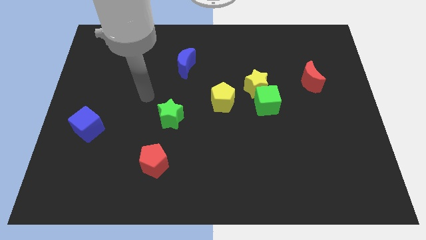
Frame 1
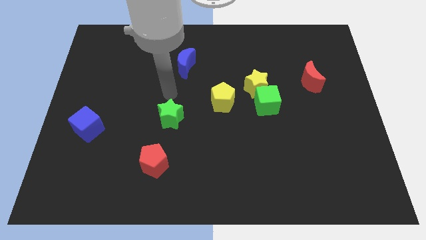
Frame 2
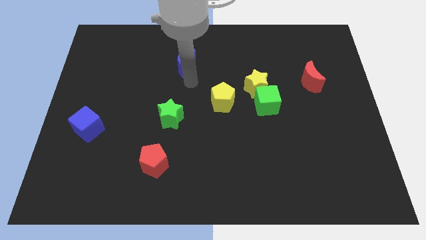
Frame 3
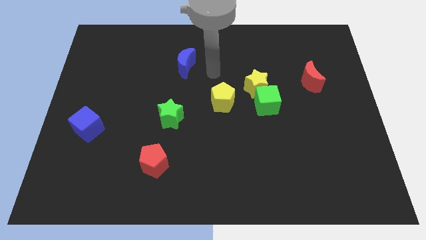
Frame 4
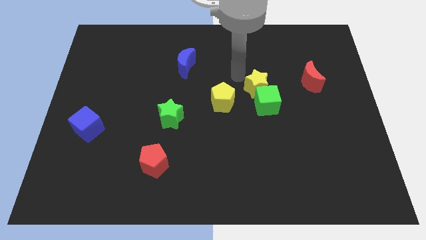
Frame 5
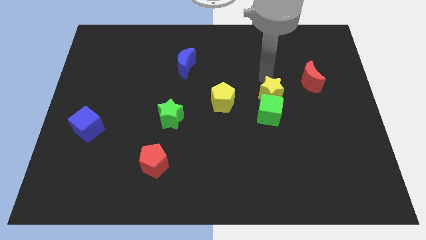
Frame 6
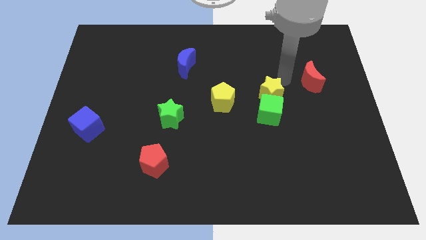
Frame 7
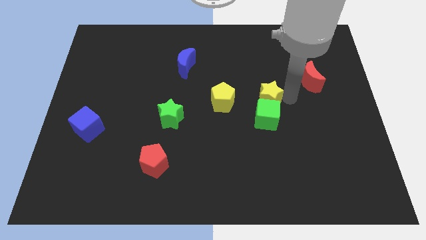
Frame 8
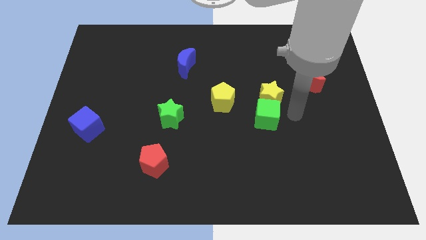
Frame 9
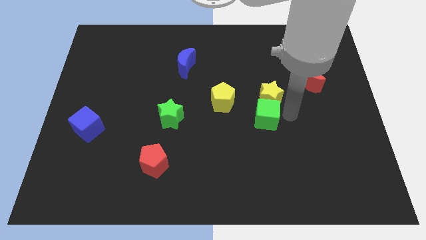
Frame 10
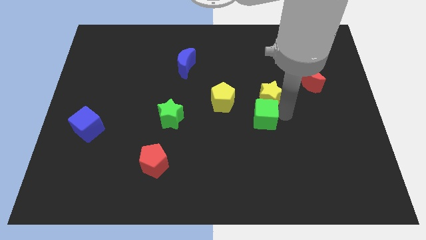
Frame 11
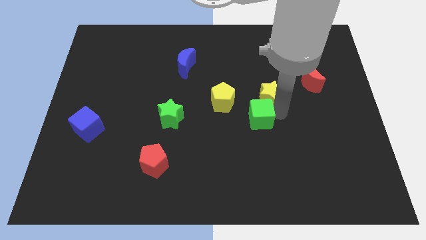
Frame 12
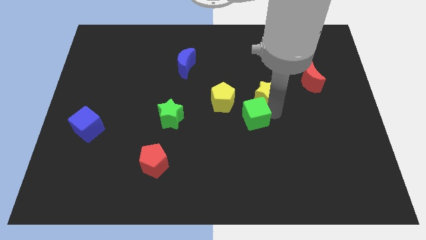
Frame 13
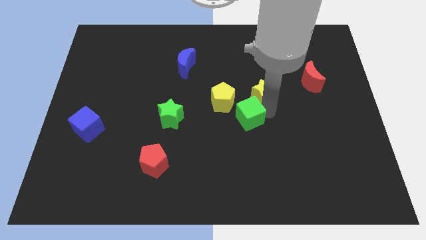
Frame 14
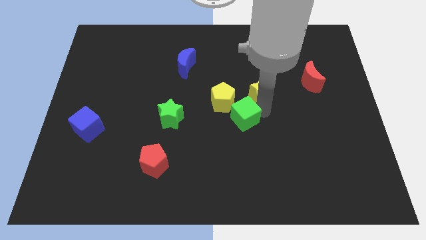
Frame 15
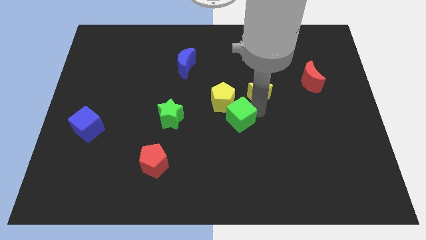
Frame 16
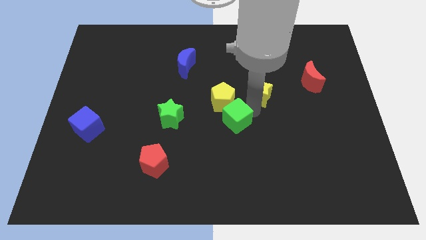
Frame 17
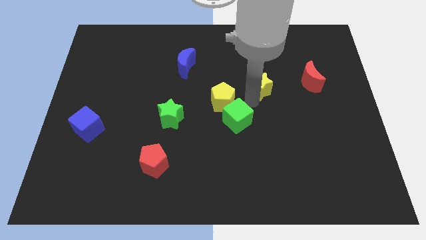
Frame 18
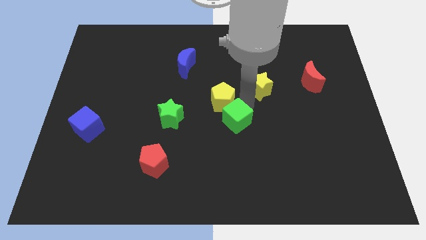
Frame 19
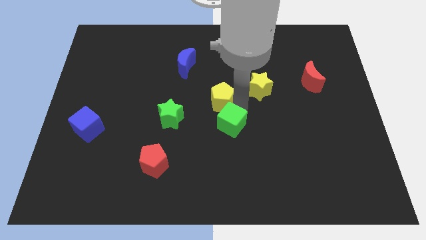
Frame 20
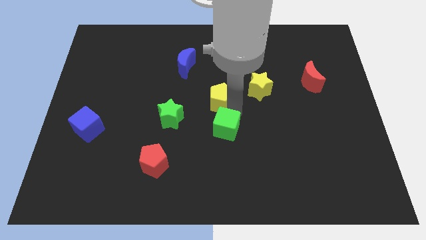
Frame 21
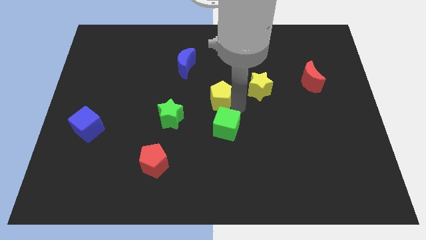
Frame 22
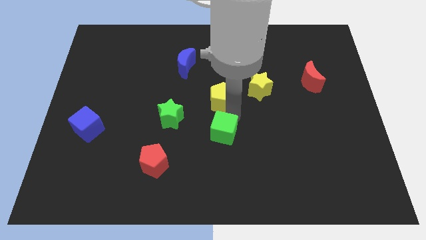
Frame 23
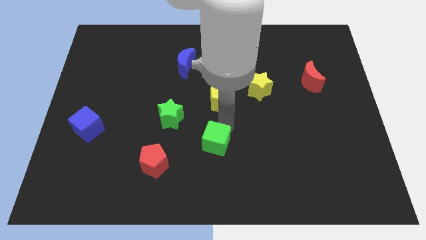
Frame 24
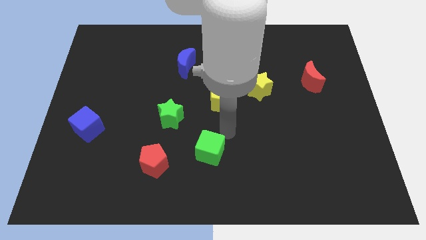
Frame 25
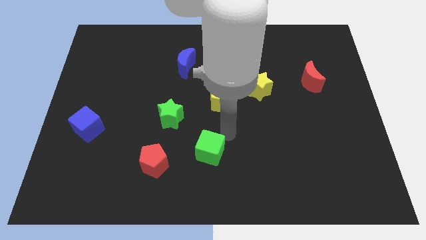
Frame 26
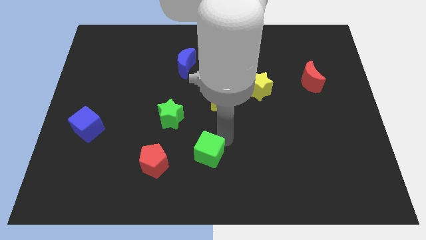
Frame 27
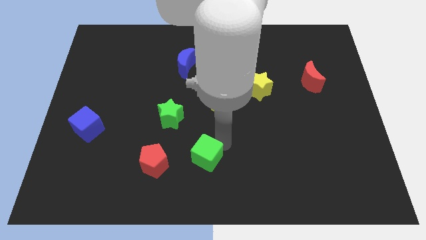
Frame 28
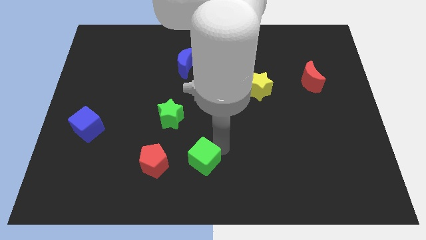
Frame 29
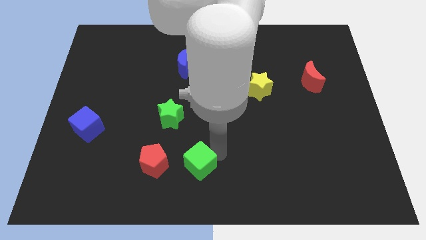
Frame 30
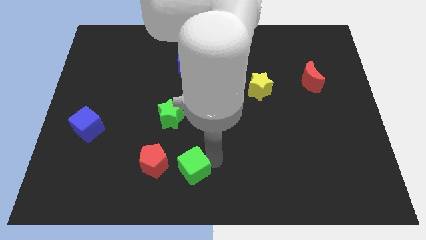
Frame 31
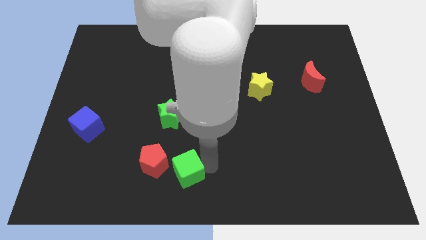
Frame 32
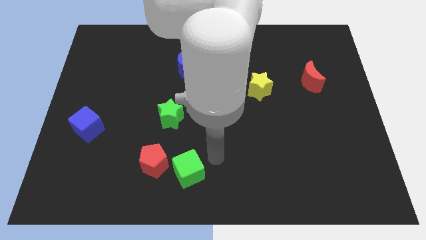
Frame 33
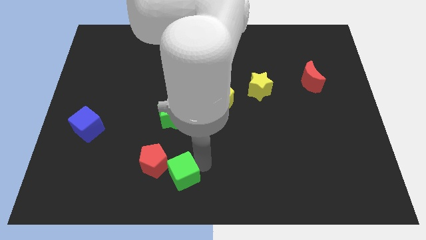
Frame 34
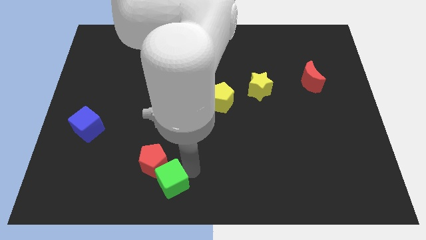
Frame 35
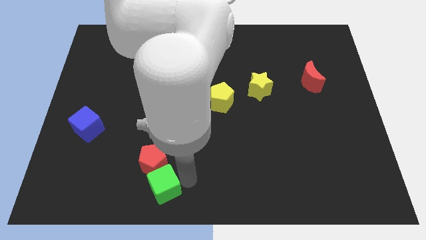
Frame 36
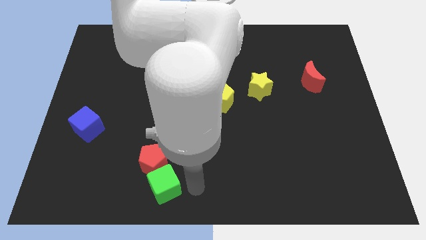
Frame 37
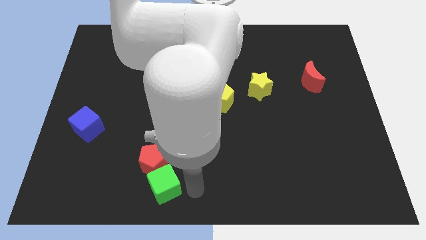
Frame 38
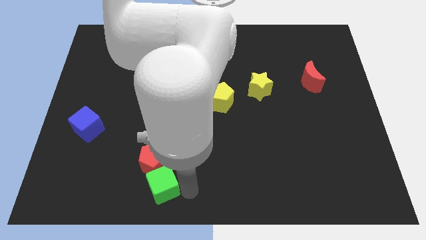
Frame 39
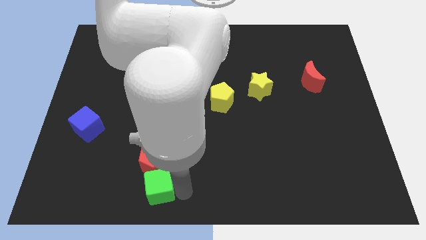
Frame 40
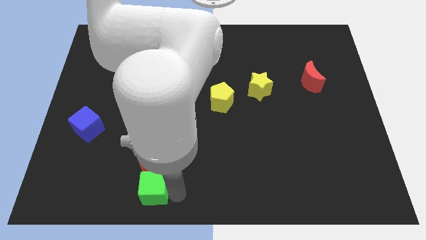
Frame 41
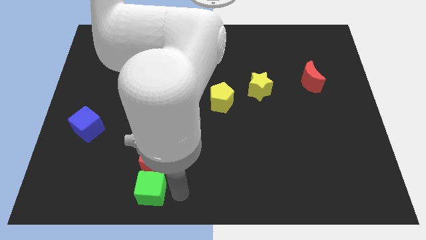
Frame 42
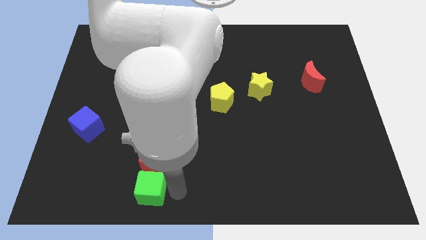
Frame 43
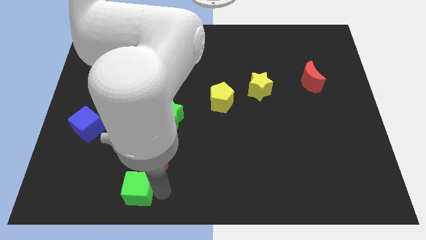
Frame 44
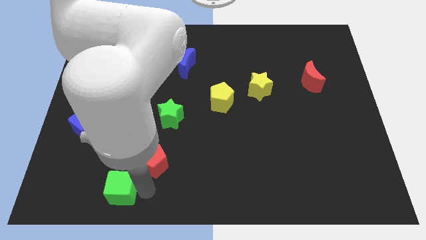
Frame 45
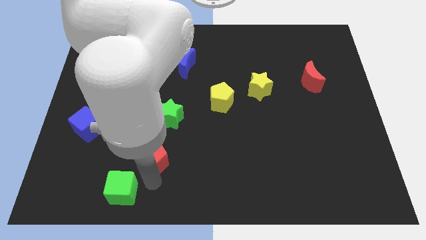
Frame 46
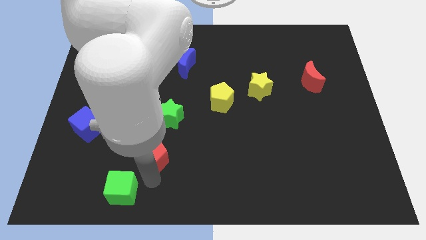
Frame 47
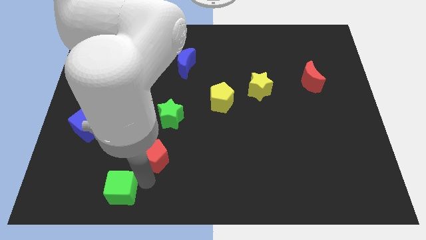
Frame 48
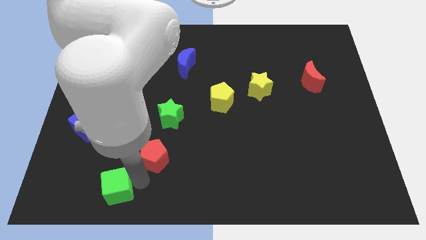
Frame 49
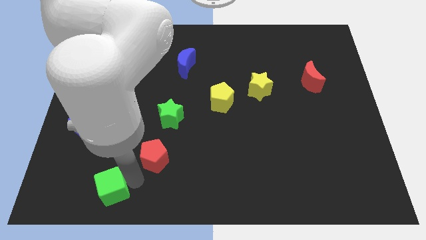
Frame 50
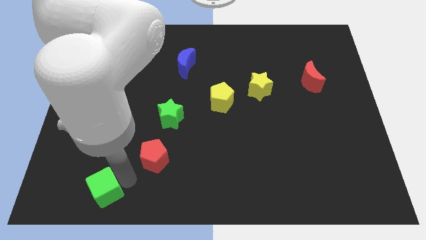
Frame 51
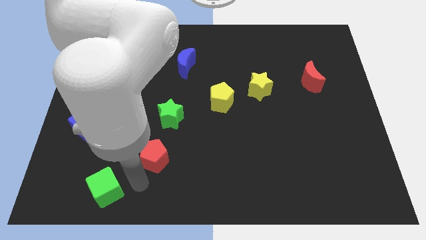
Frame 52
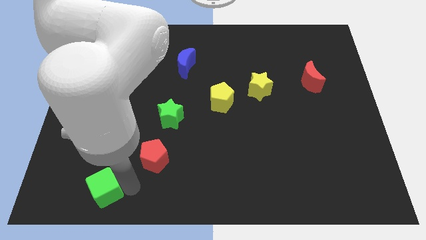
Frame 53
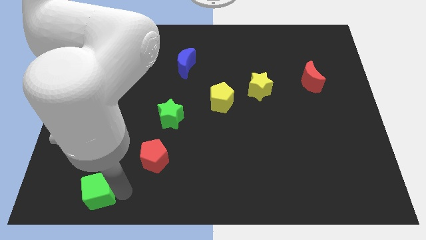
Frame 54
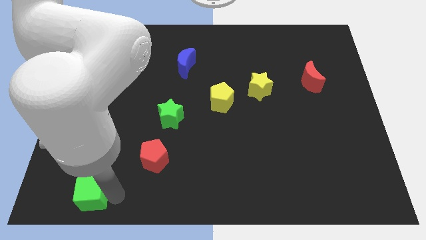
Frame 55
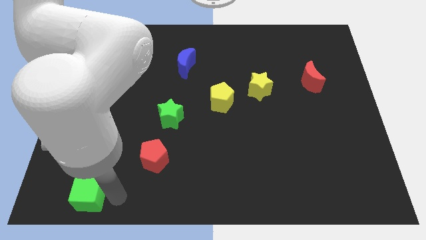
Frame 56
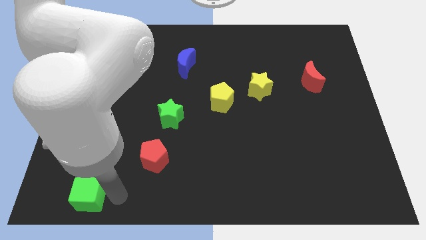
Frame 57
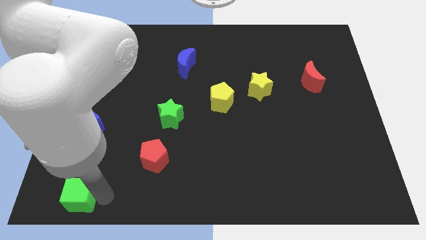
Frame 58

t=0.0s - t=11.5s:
slide the green cube to the bottom left

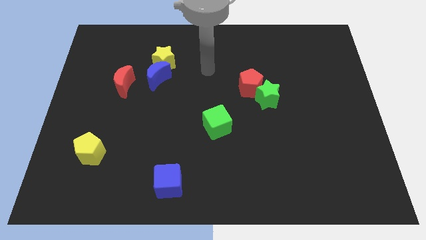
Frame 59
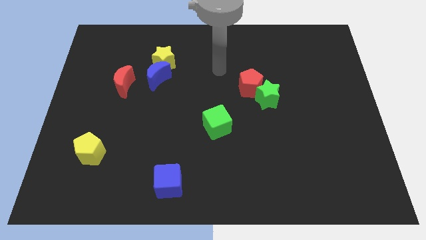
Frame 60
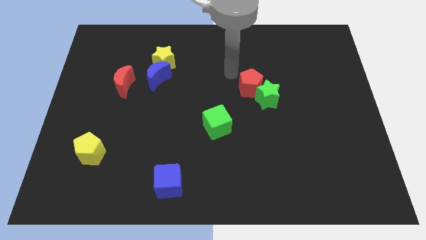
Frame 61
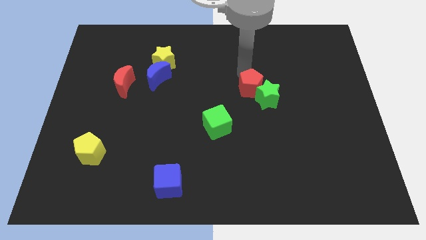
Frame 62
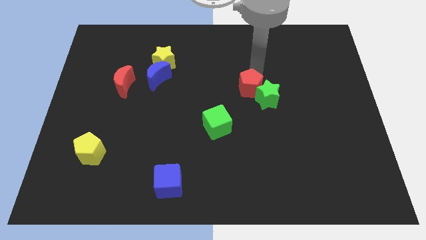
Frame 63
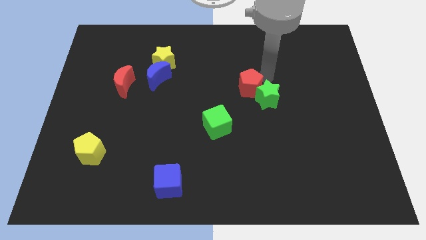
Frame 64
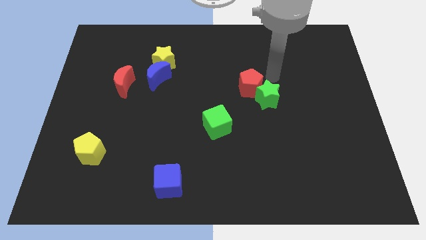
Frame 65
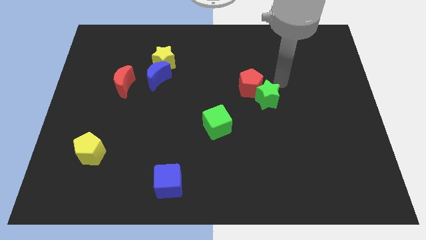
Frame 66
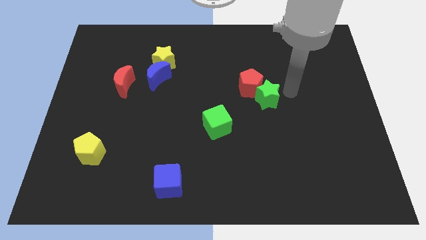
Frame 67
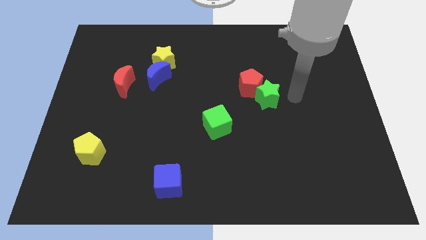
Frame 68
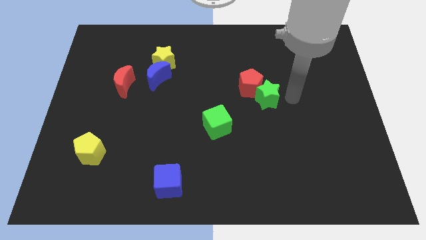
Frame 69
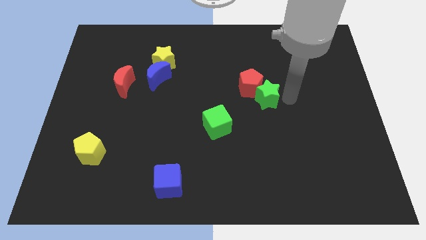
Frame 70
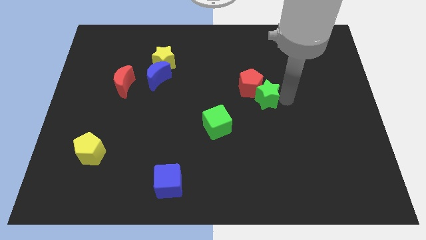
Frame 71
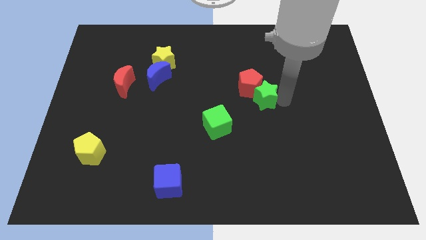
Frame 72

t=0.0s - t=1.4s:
move the green star to the center
